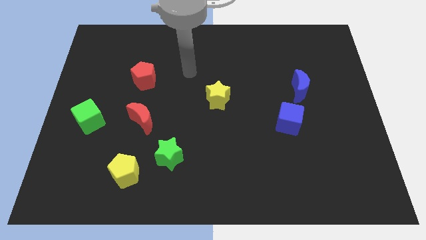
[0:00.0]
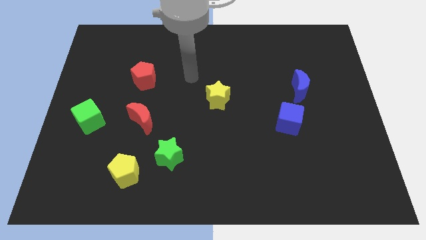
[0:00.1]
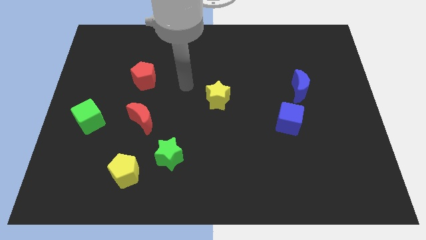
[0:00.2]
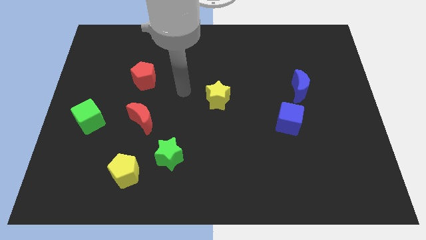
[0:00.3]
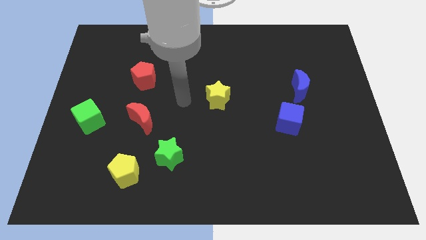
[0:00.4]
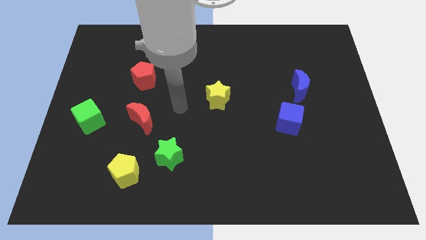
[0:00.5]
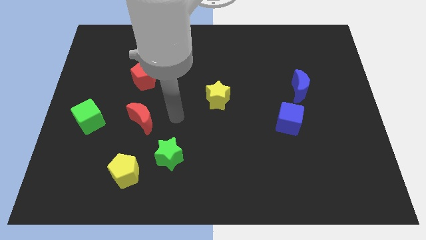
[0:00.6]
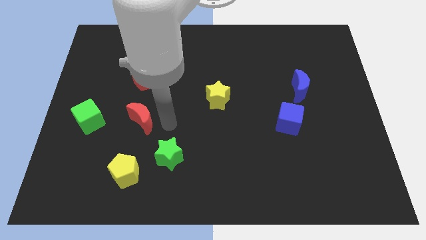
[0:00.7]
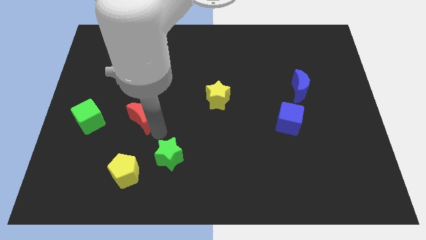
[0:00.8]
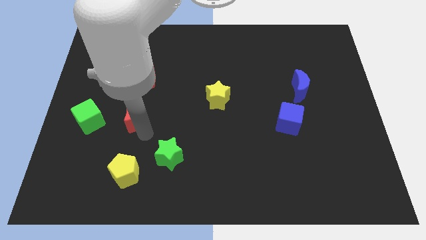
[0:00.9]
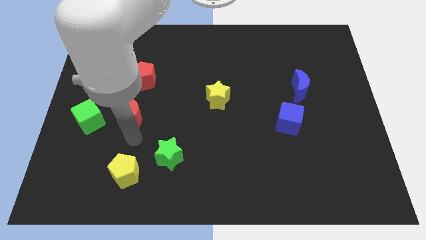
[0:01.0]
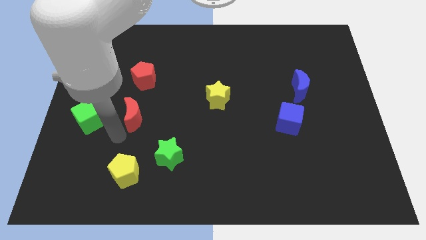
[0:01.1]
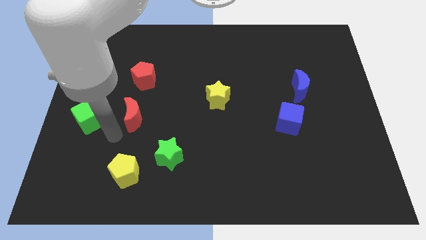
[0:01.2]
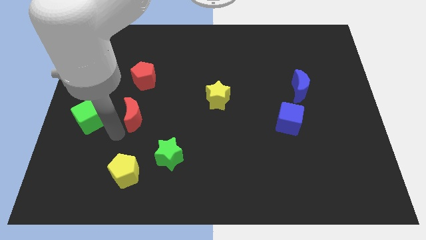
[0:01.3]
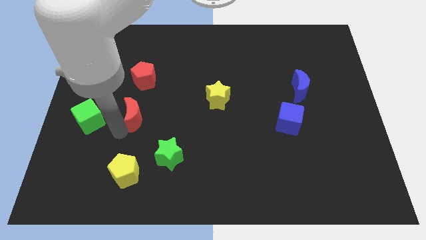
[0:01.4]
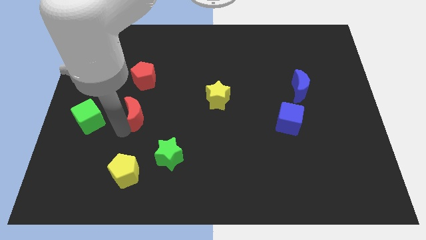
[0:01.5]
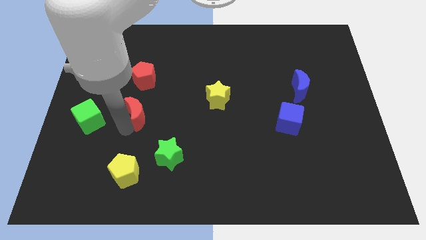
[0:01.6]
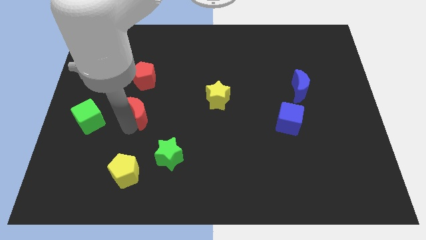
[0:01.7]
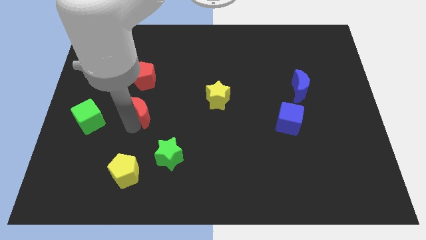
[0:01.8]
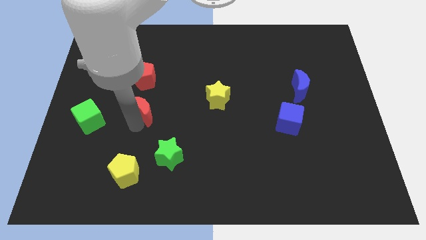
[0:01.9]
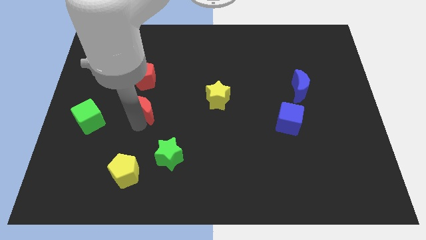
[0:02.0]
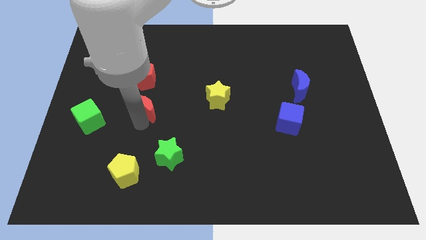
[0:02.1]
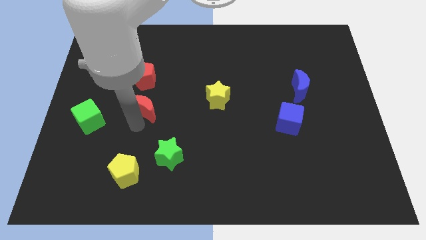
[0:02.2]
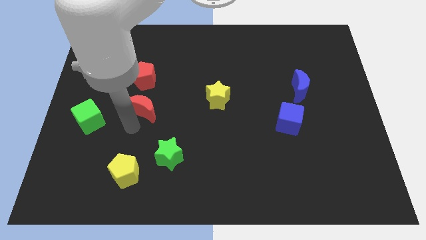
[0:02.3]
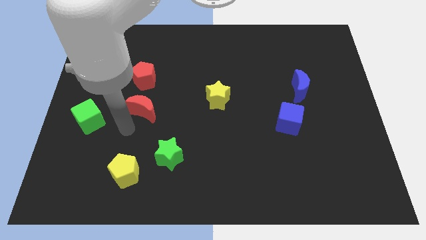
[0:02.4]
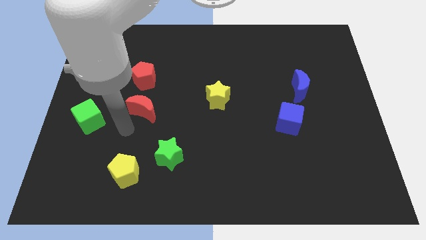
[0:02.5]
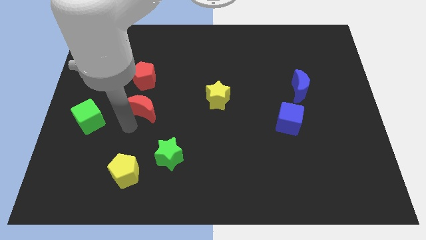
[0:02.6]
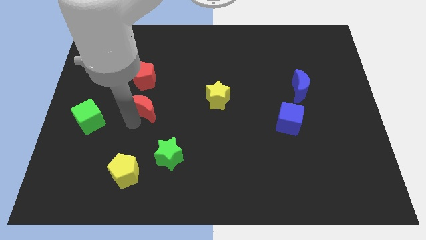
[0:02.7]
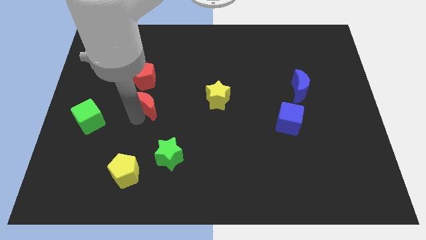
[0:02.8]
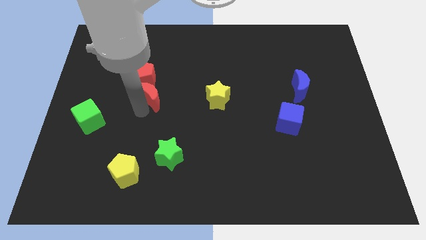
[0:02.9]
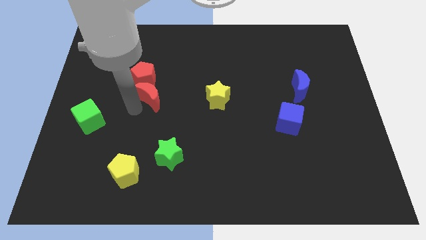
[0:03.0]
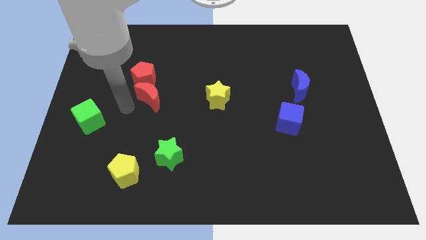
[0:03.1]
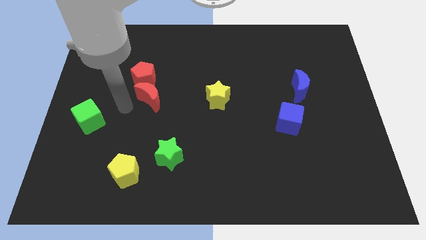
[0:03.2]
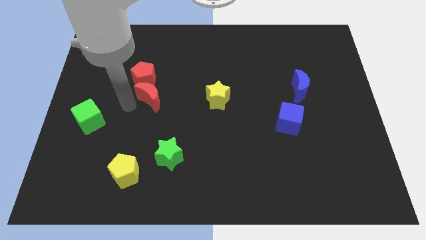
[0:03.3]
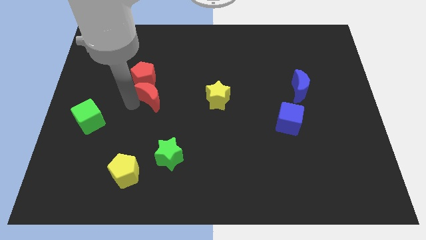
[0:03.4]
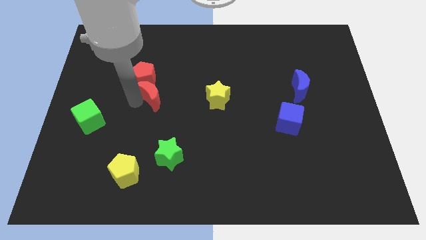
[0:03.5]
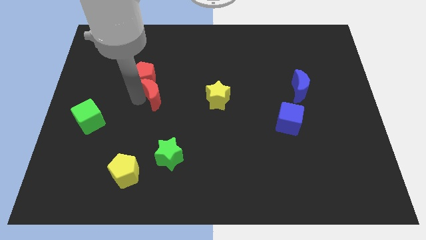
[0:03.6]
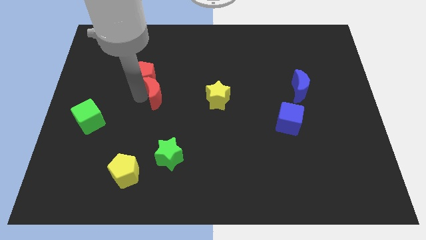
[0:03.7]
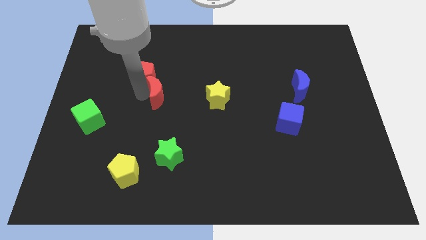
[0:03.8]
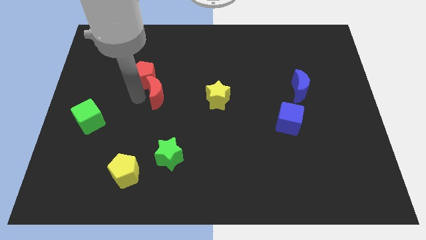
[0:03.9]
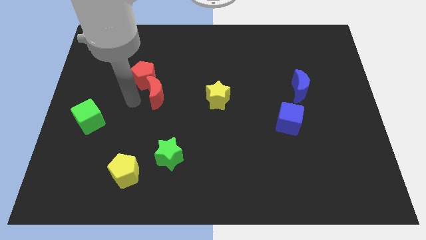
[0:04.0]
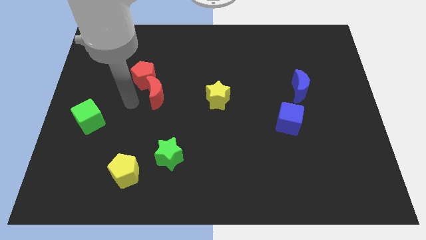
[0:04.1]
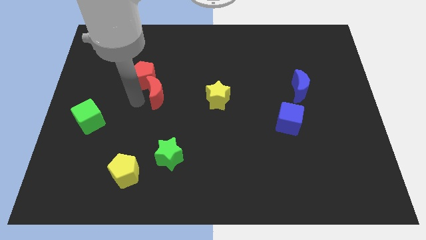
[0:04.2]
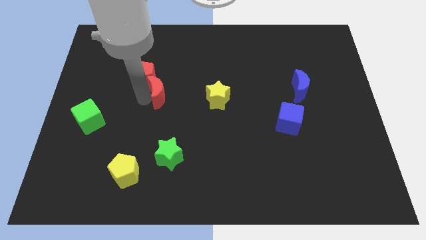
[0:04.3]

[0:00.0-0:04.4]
slide the red moon a bit up and then to the right

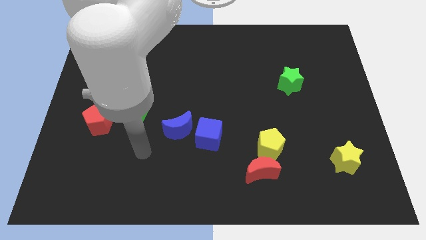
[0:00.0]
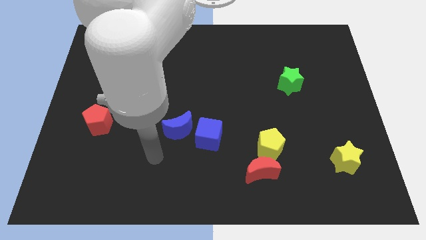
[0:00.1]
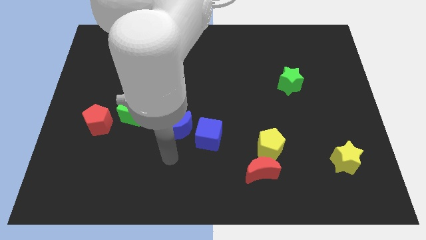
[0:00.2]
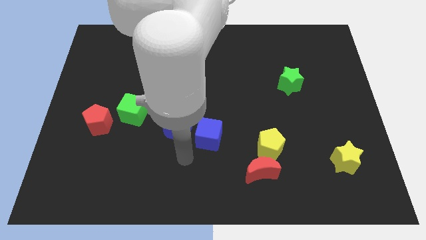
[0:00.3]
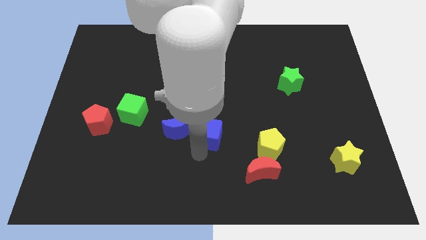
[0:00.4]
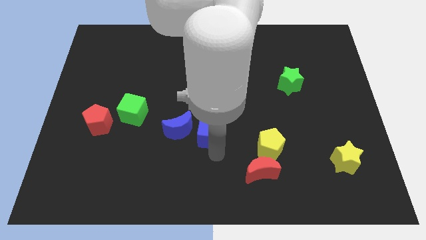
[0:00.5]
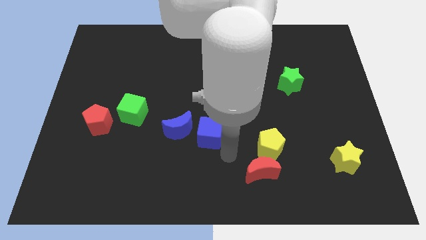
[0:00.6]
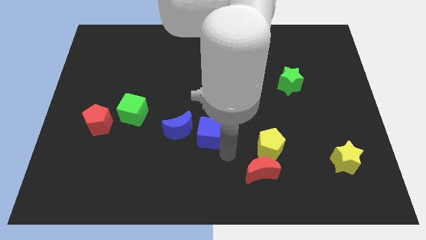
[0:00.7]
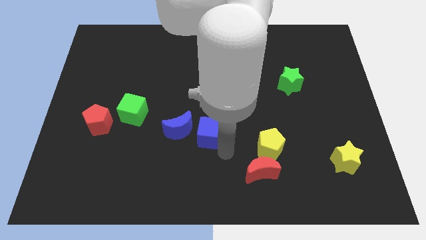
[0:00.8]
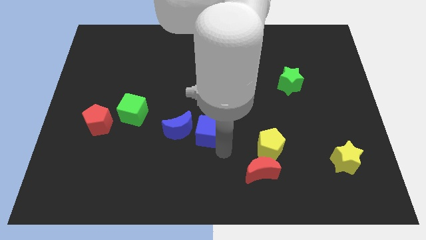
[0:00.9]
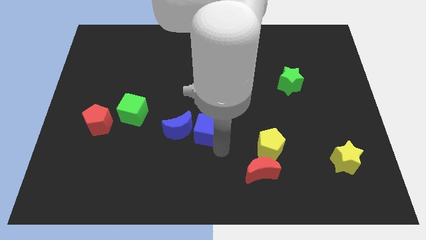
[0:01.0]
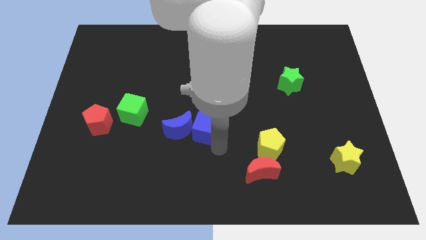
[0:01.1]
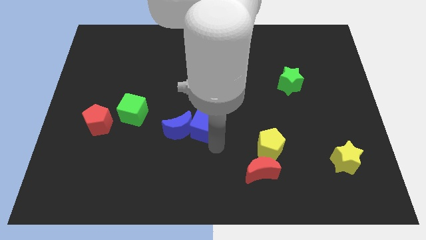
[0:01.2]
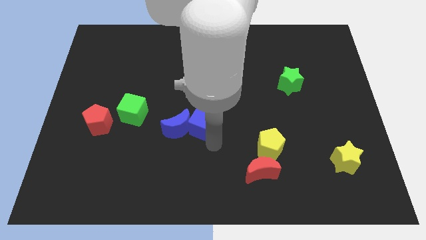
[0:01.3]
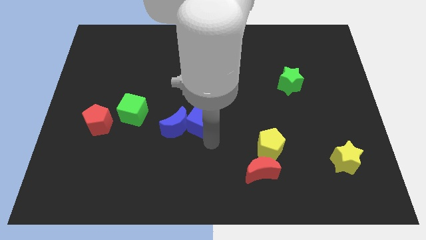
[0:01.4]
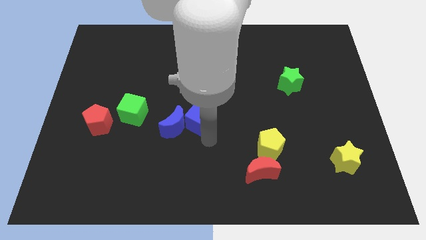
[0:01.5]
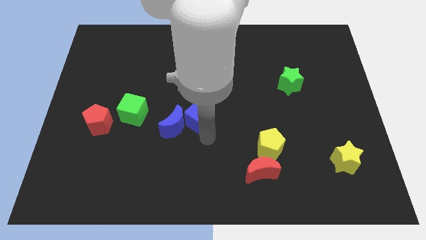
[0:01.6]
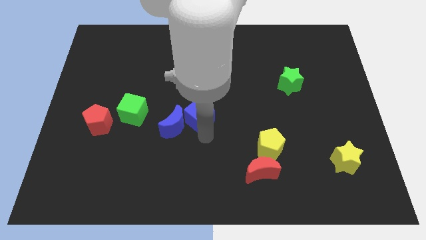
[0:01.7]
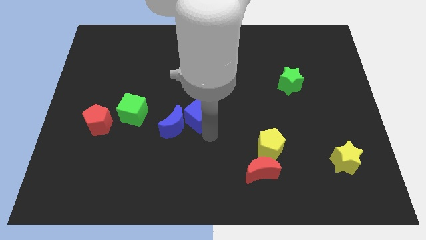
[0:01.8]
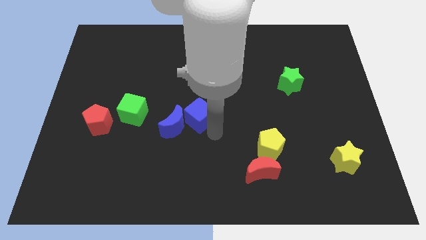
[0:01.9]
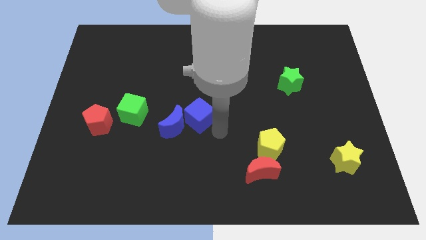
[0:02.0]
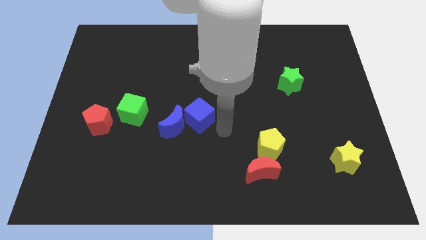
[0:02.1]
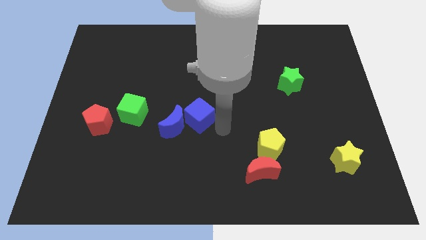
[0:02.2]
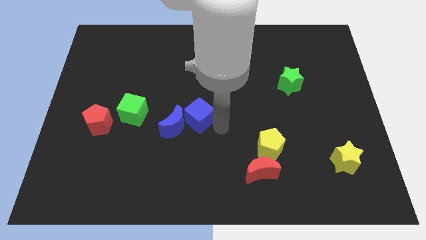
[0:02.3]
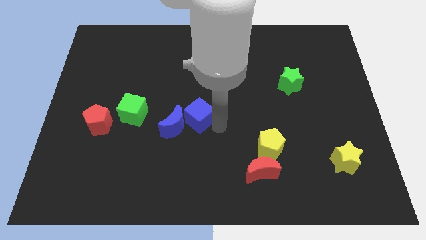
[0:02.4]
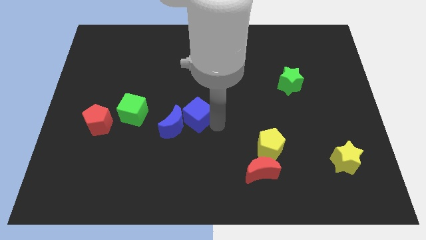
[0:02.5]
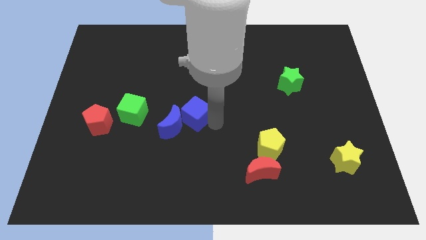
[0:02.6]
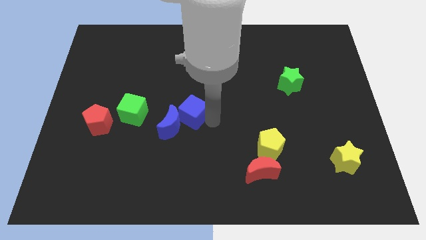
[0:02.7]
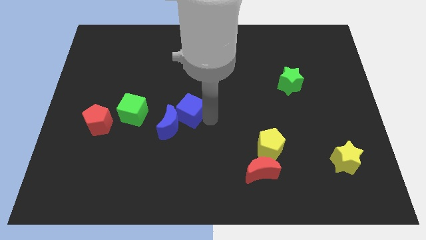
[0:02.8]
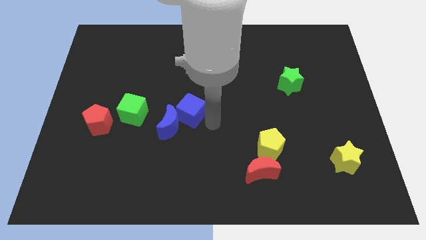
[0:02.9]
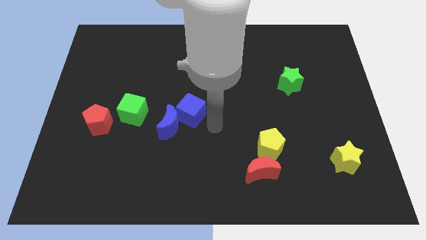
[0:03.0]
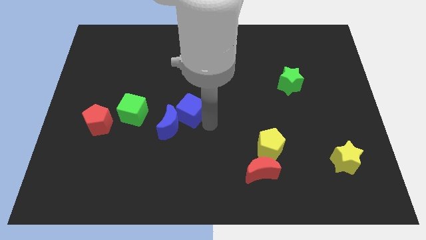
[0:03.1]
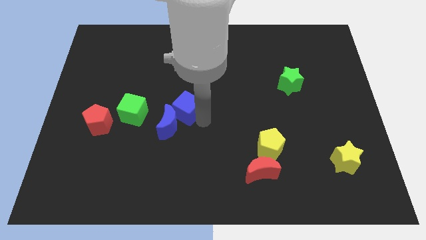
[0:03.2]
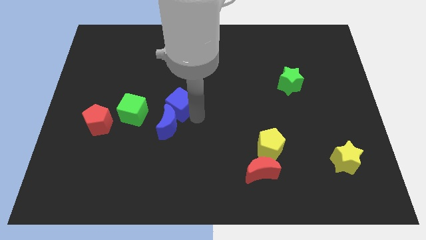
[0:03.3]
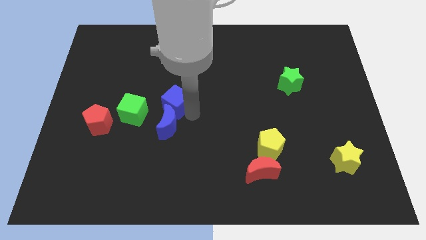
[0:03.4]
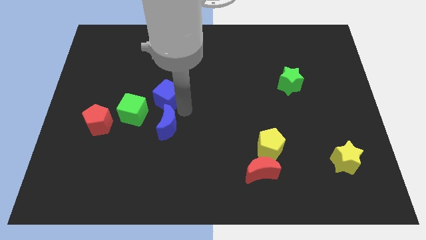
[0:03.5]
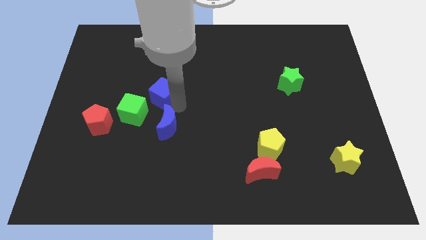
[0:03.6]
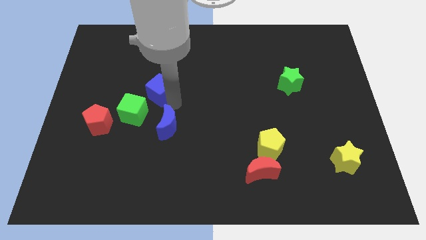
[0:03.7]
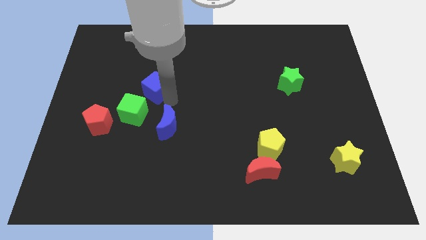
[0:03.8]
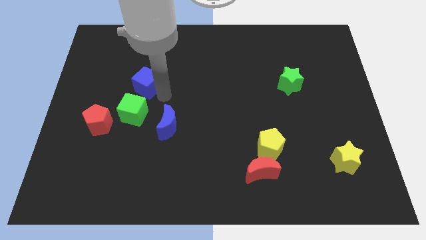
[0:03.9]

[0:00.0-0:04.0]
push the blue cube upwards and left diagonally
